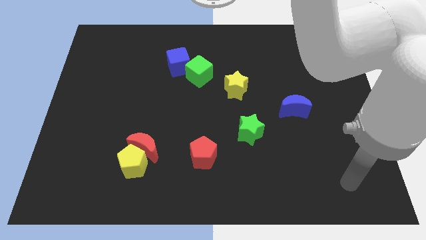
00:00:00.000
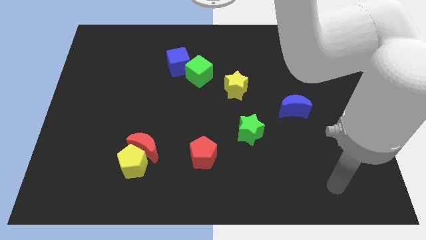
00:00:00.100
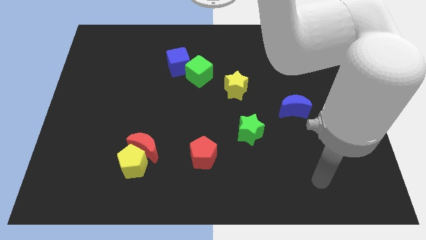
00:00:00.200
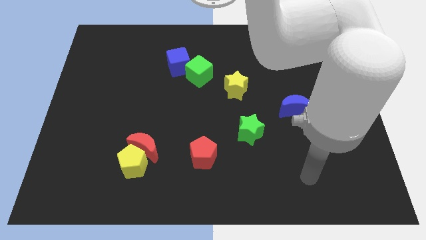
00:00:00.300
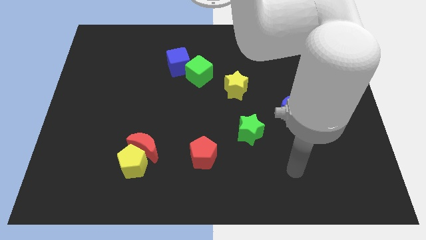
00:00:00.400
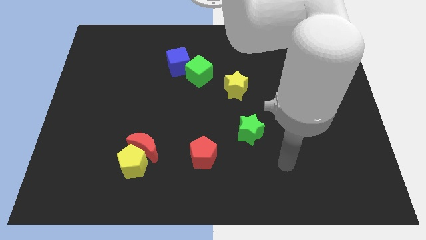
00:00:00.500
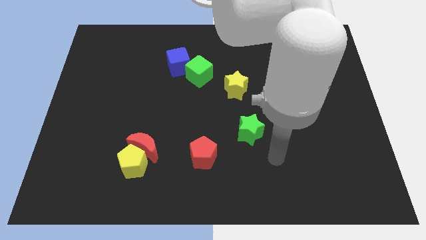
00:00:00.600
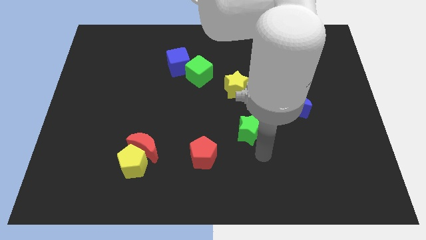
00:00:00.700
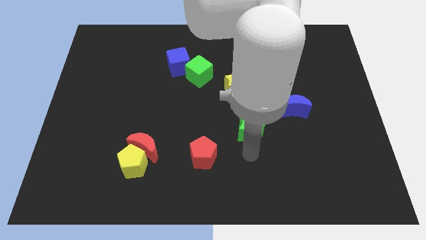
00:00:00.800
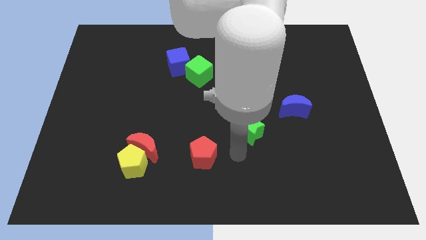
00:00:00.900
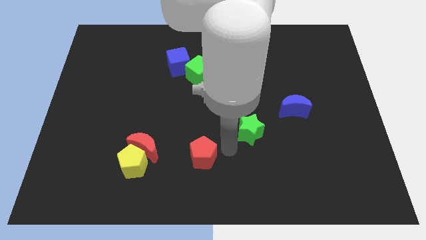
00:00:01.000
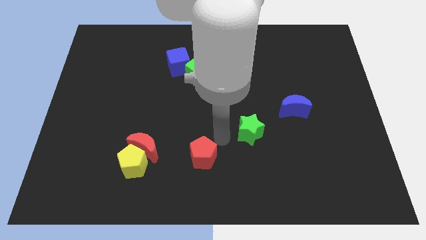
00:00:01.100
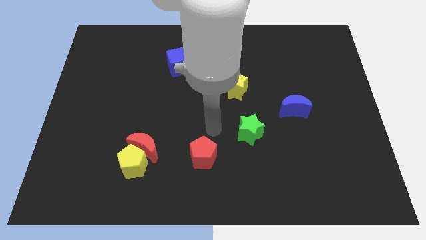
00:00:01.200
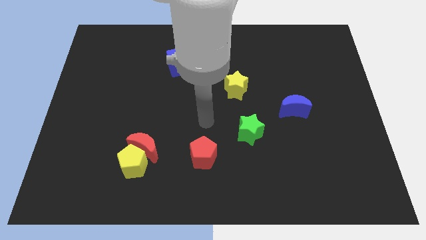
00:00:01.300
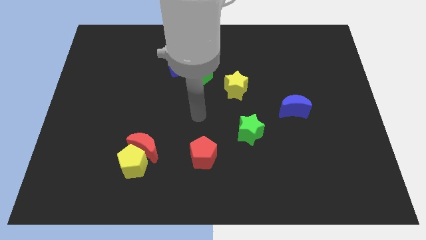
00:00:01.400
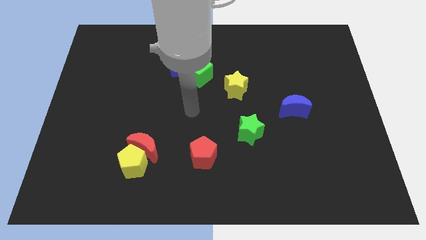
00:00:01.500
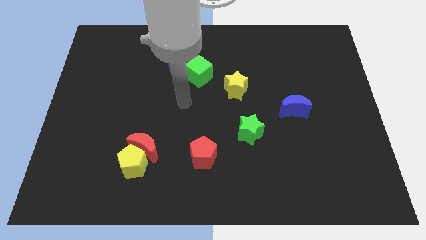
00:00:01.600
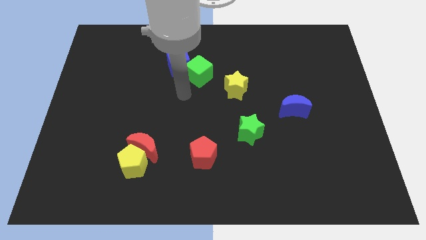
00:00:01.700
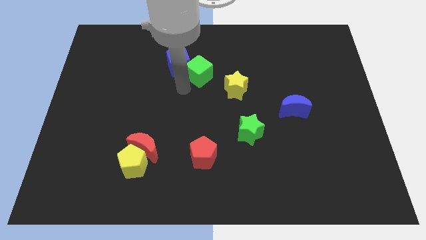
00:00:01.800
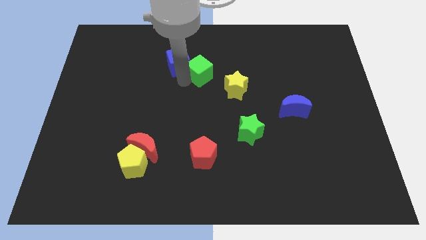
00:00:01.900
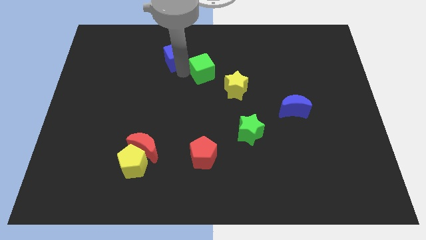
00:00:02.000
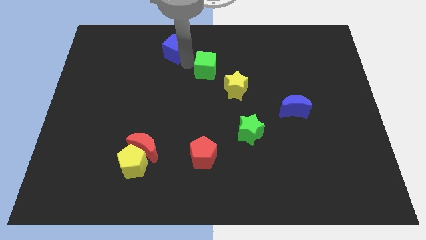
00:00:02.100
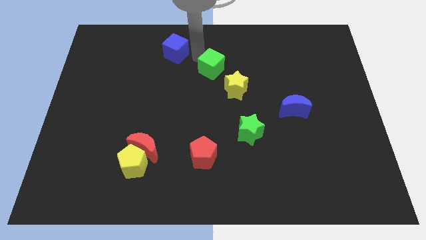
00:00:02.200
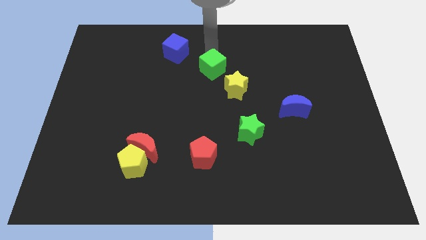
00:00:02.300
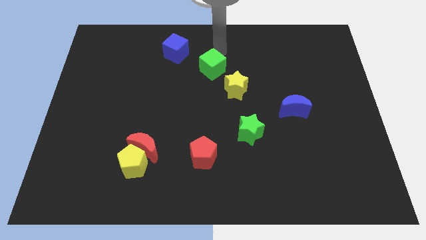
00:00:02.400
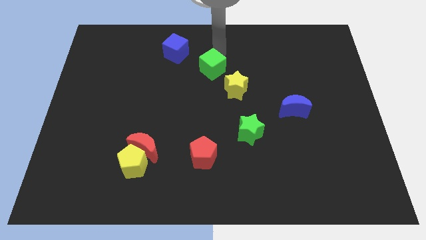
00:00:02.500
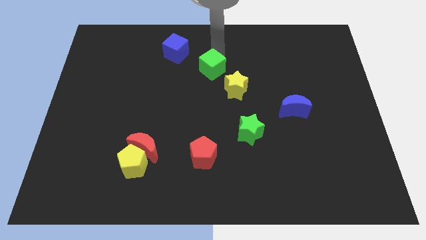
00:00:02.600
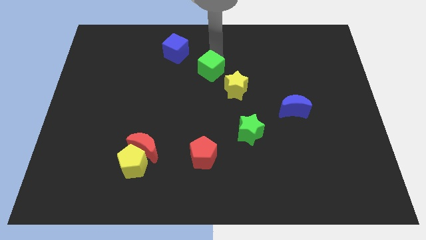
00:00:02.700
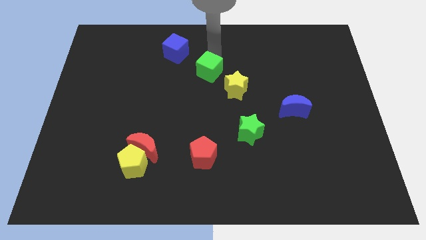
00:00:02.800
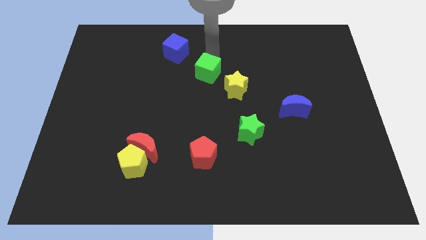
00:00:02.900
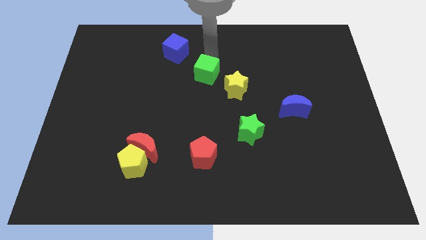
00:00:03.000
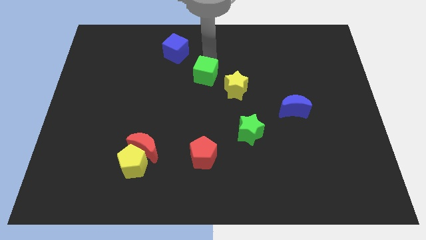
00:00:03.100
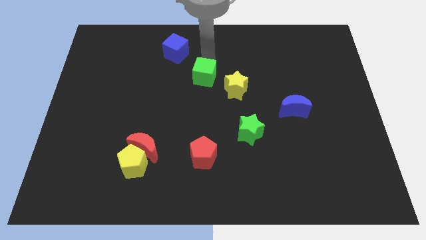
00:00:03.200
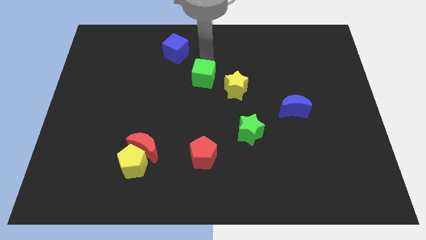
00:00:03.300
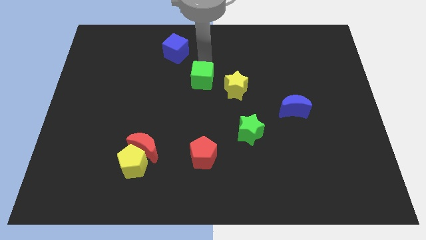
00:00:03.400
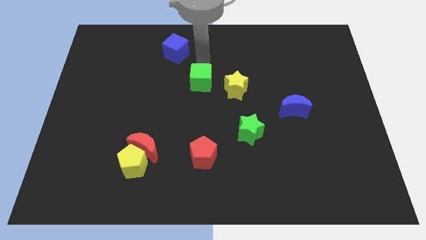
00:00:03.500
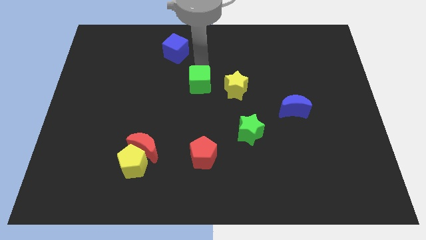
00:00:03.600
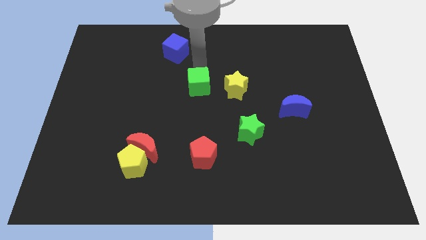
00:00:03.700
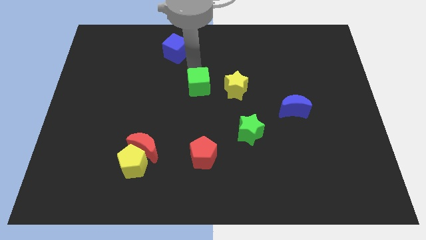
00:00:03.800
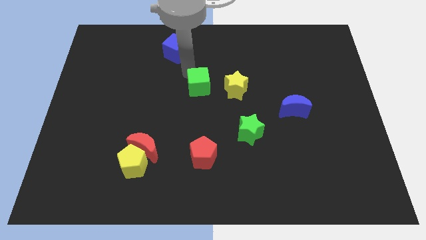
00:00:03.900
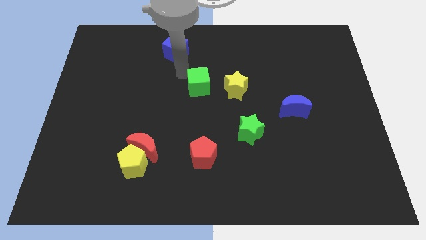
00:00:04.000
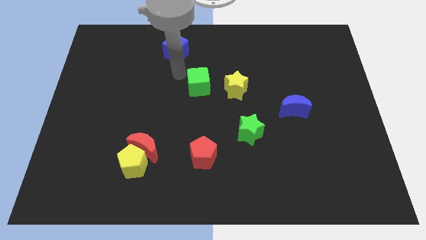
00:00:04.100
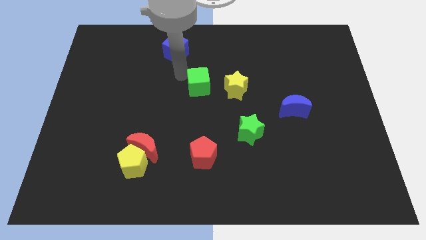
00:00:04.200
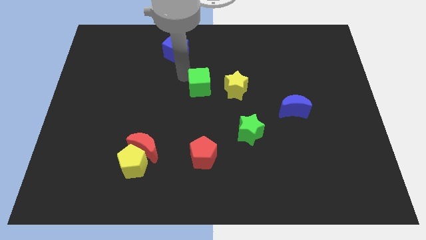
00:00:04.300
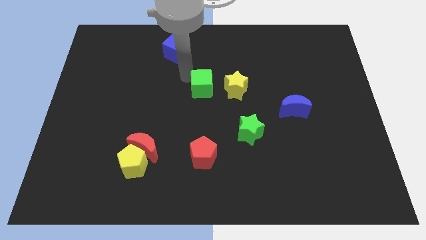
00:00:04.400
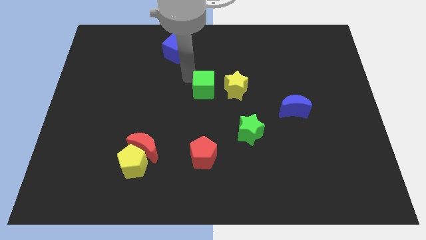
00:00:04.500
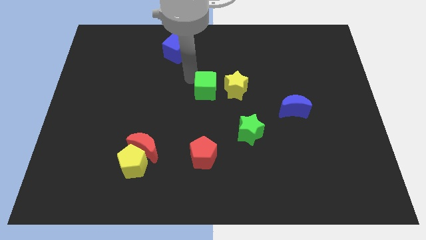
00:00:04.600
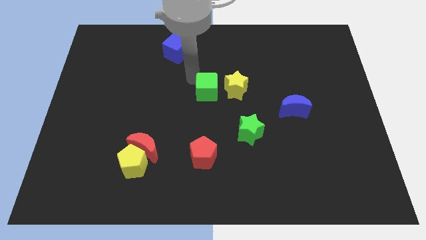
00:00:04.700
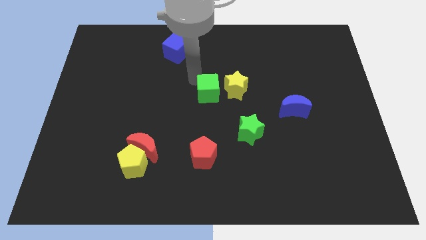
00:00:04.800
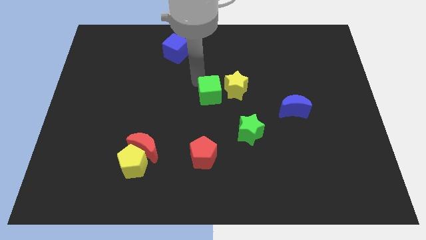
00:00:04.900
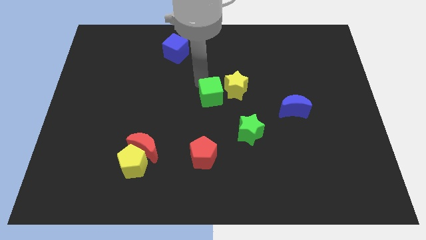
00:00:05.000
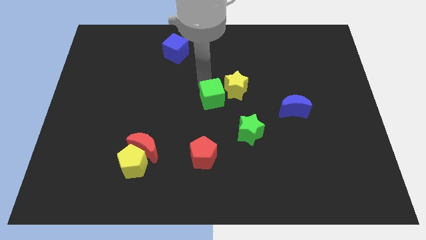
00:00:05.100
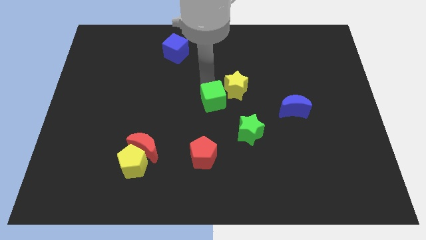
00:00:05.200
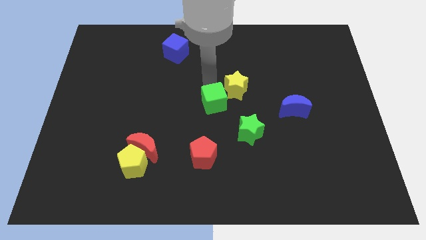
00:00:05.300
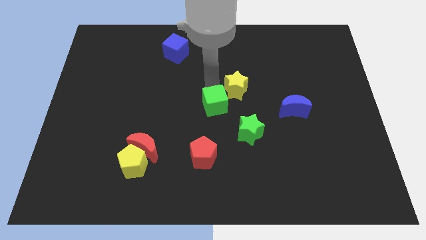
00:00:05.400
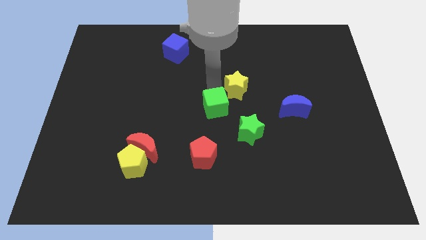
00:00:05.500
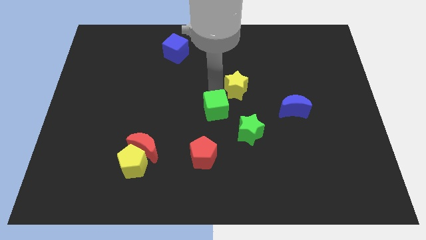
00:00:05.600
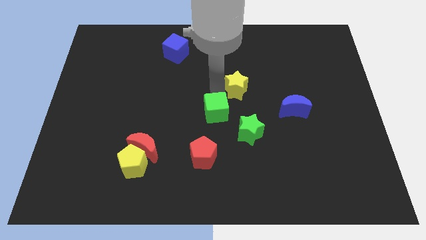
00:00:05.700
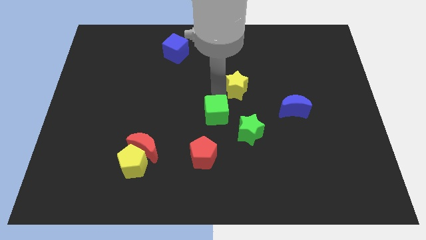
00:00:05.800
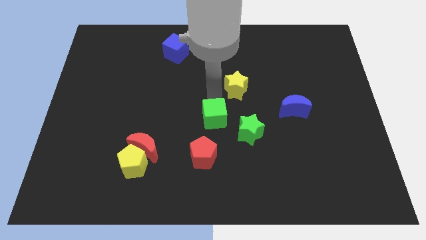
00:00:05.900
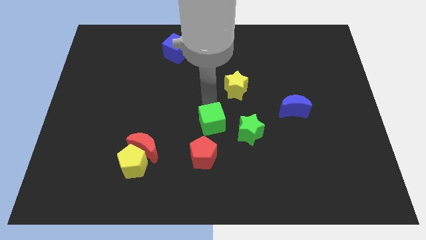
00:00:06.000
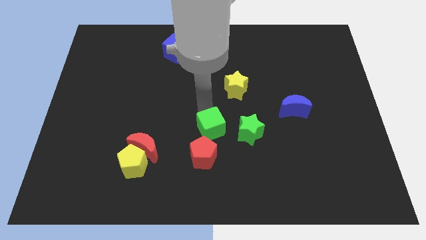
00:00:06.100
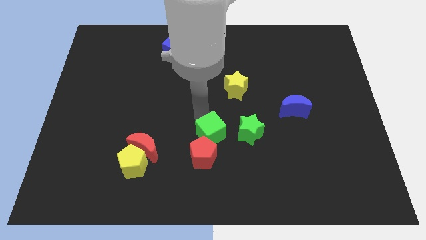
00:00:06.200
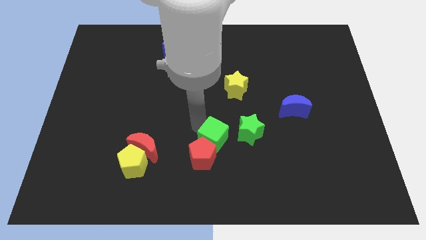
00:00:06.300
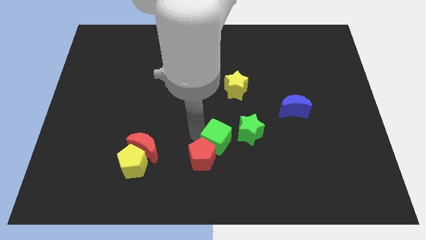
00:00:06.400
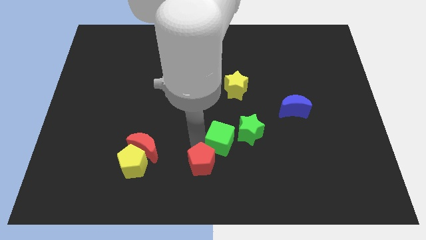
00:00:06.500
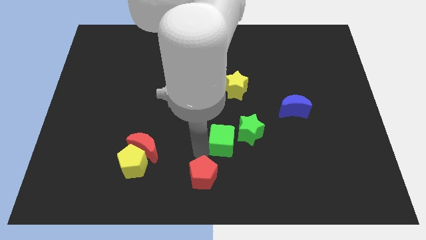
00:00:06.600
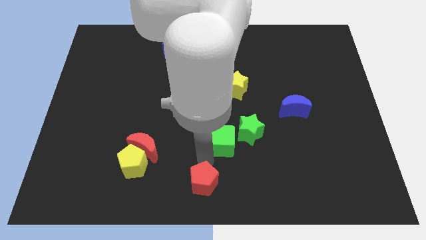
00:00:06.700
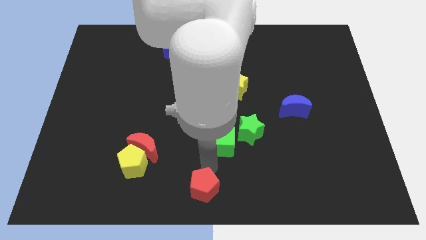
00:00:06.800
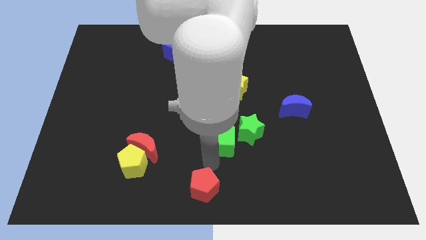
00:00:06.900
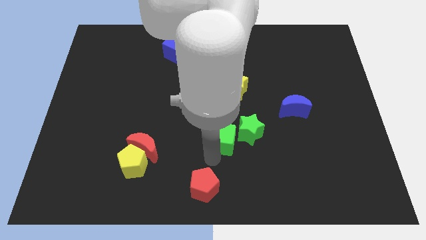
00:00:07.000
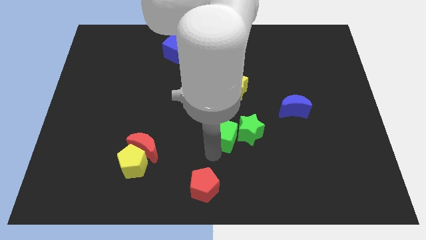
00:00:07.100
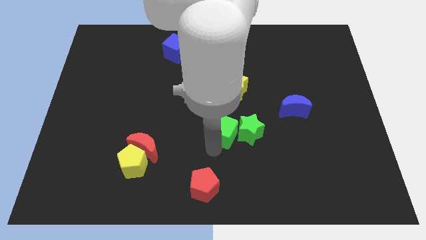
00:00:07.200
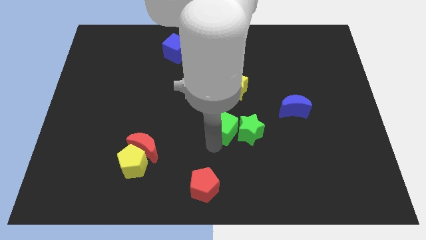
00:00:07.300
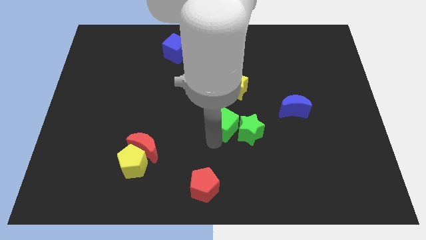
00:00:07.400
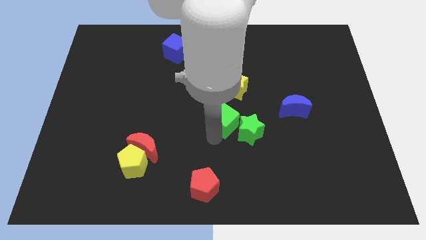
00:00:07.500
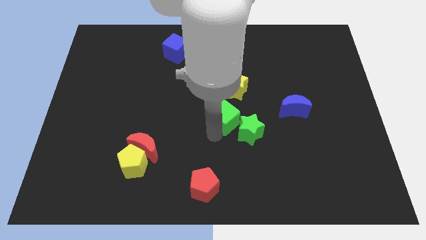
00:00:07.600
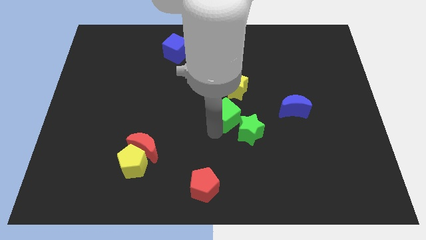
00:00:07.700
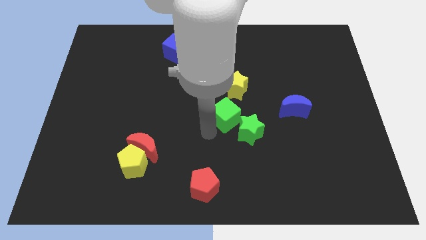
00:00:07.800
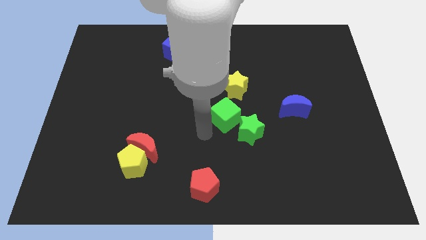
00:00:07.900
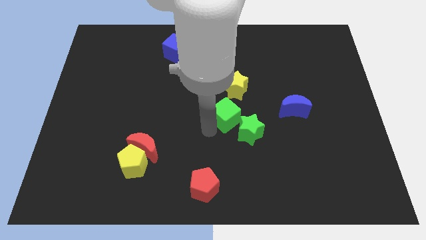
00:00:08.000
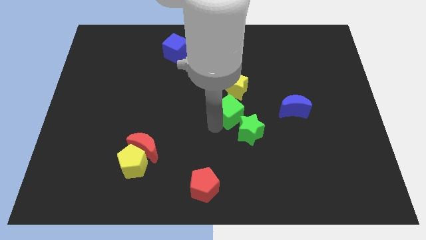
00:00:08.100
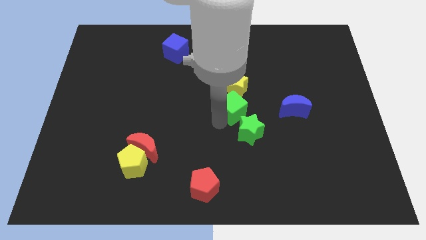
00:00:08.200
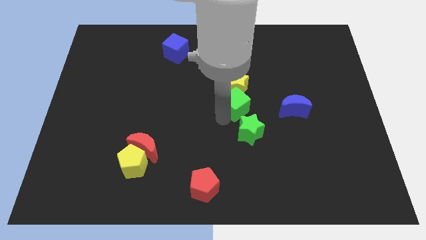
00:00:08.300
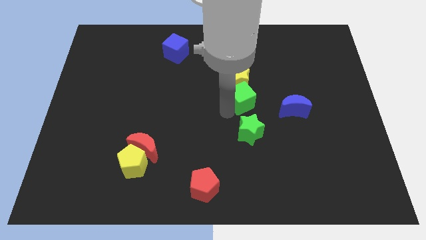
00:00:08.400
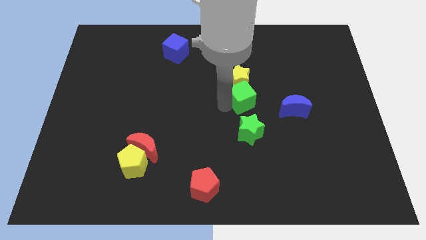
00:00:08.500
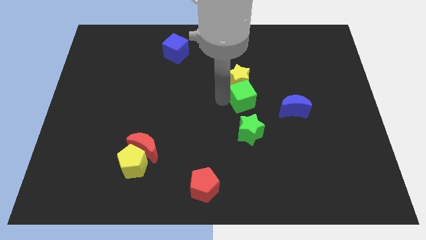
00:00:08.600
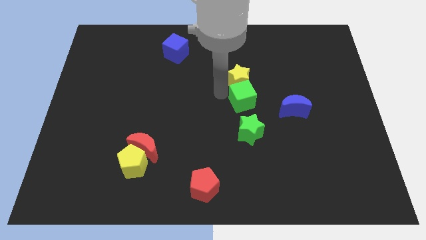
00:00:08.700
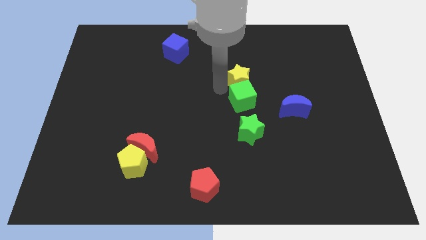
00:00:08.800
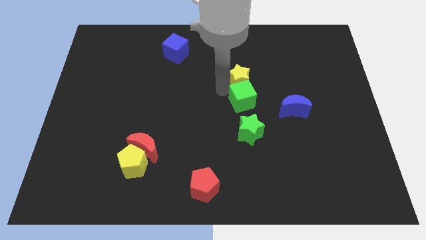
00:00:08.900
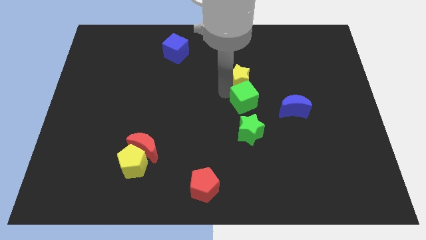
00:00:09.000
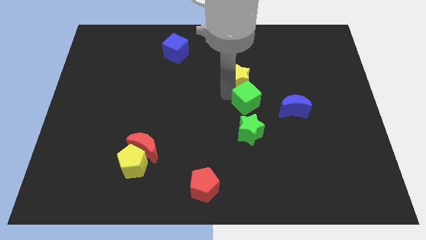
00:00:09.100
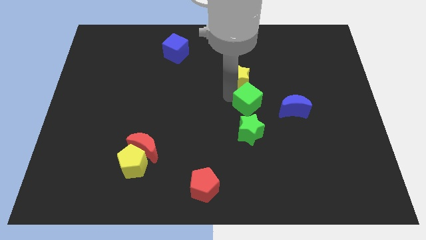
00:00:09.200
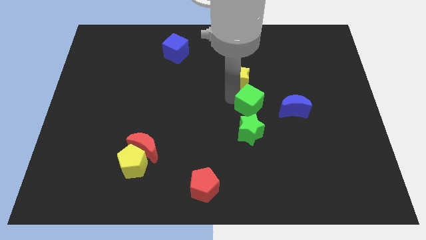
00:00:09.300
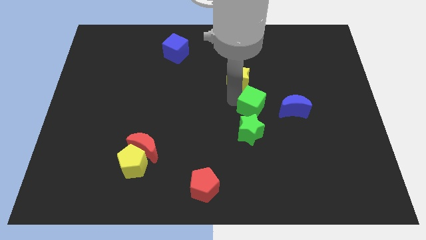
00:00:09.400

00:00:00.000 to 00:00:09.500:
slide the green cube diagonally up and to the right of the green star
